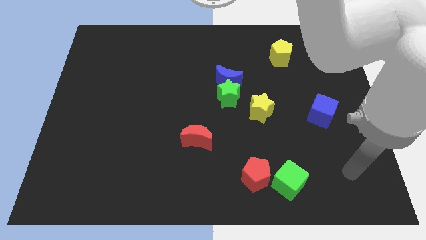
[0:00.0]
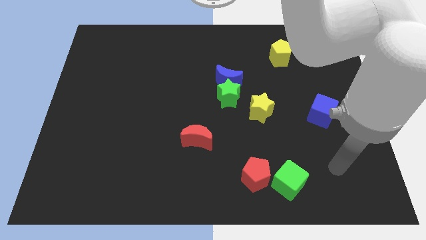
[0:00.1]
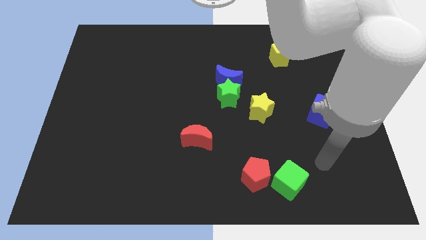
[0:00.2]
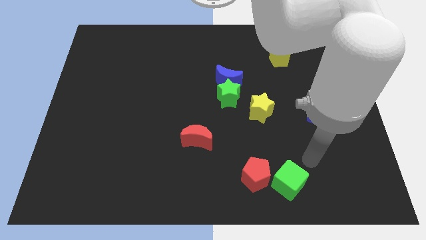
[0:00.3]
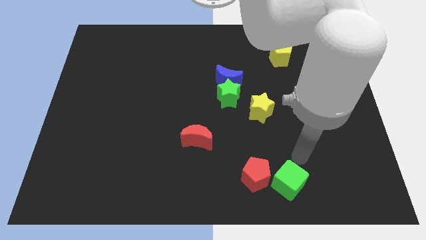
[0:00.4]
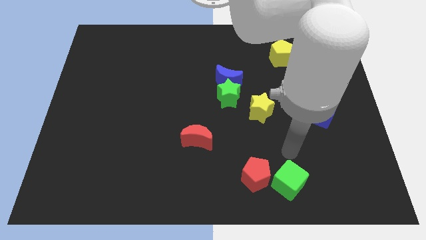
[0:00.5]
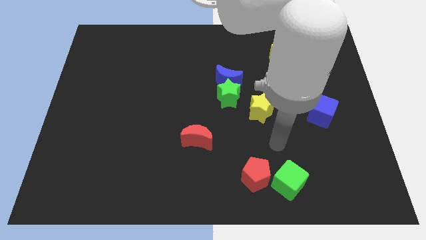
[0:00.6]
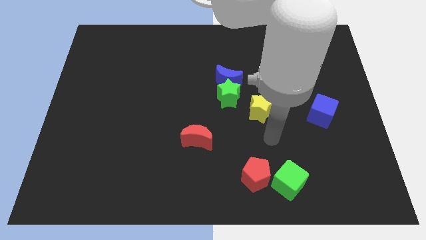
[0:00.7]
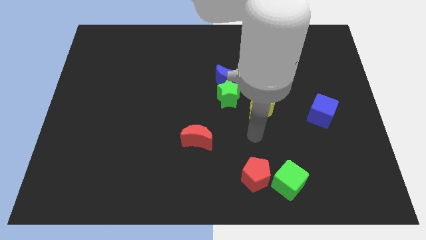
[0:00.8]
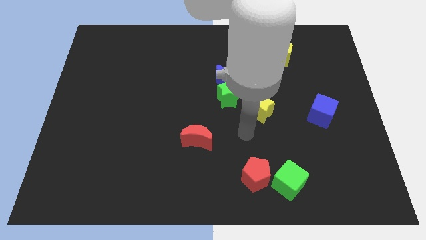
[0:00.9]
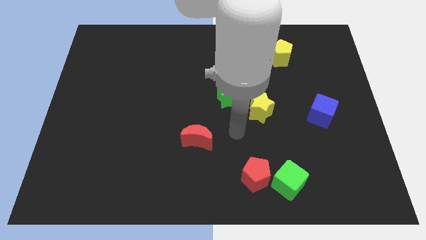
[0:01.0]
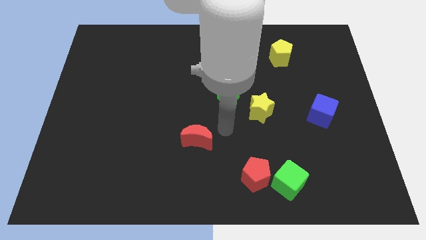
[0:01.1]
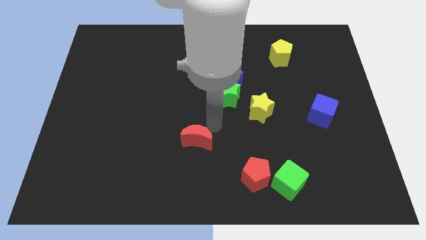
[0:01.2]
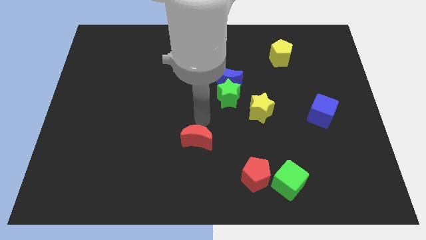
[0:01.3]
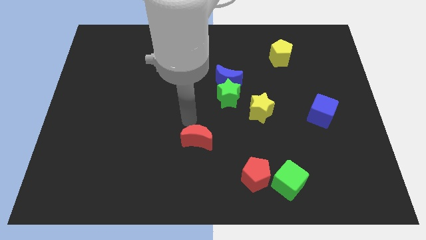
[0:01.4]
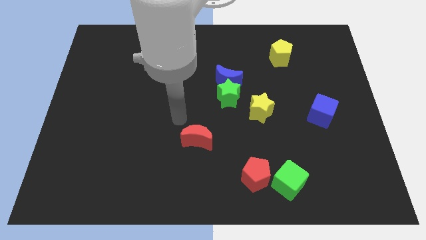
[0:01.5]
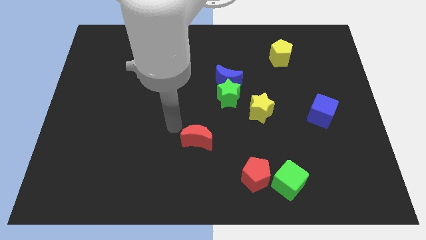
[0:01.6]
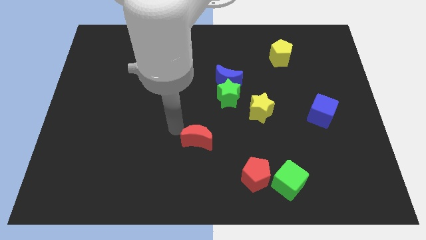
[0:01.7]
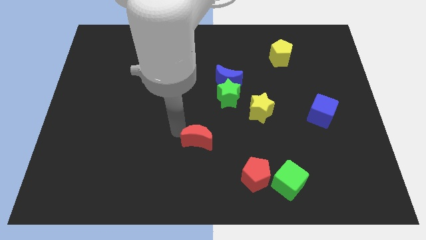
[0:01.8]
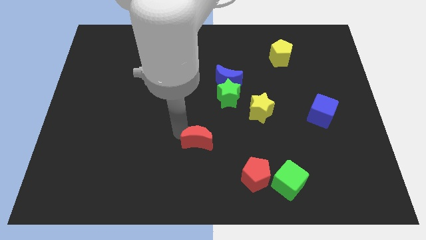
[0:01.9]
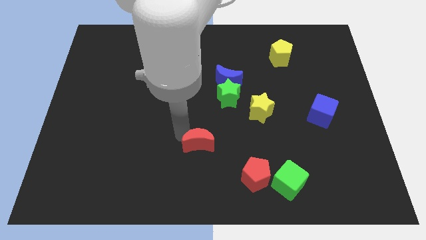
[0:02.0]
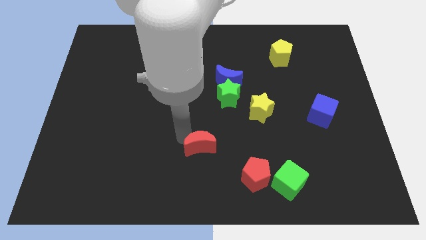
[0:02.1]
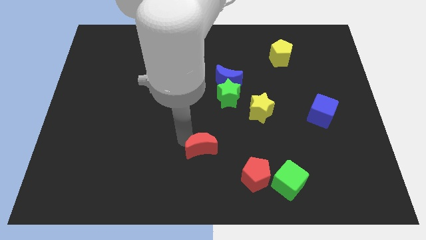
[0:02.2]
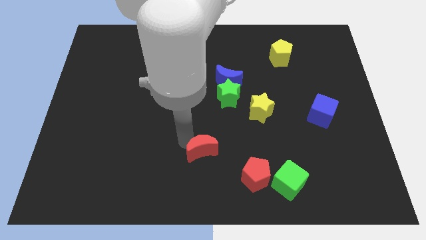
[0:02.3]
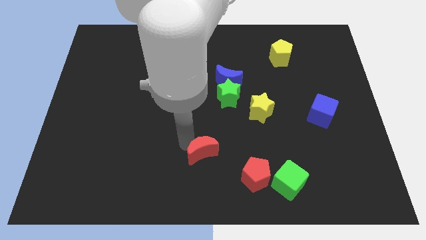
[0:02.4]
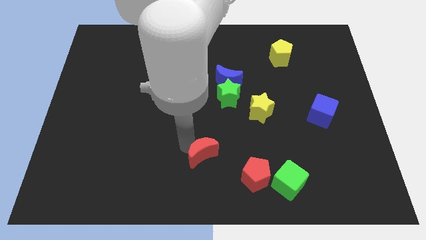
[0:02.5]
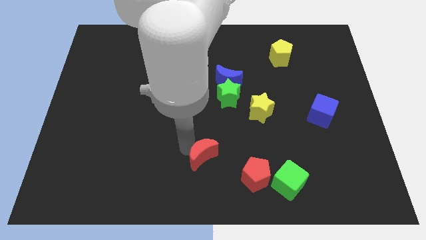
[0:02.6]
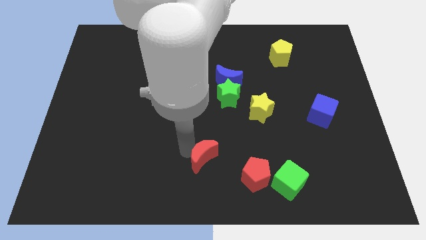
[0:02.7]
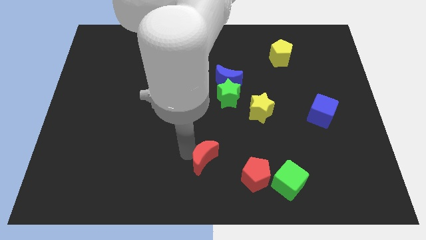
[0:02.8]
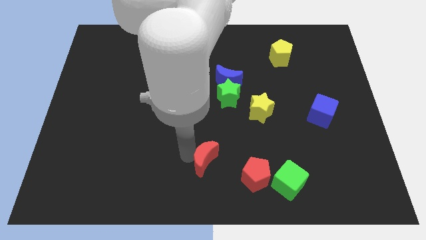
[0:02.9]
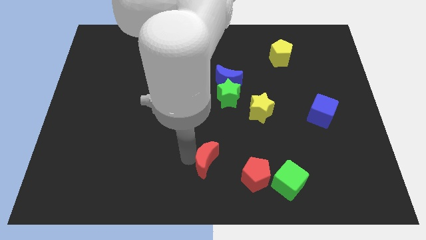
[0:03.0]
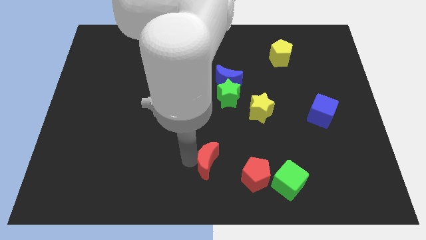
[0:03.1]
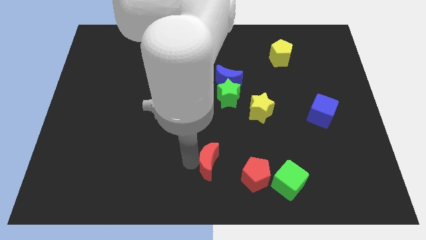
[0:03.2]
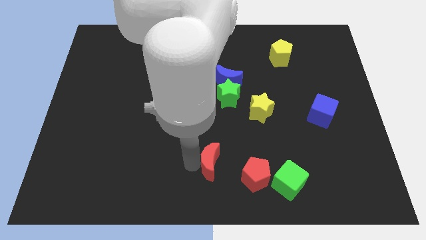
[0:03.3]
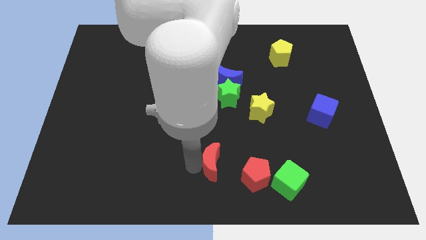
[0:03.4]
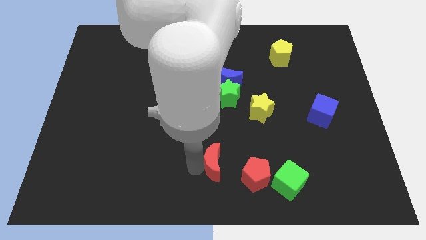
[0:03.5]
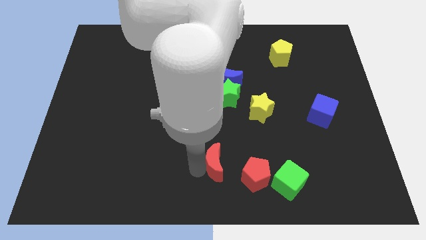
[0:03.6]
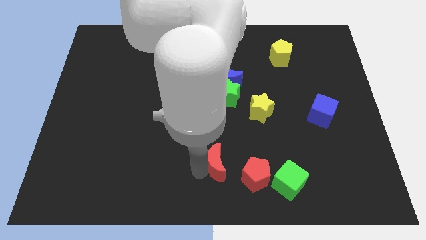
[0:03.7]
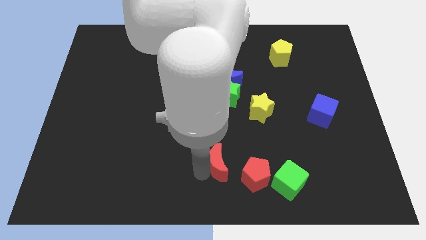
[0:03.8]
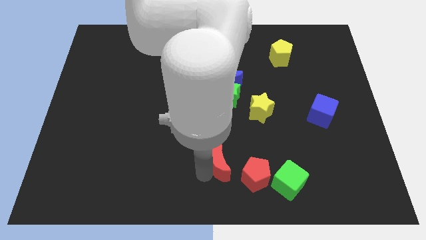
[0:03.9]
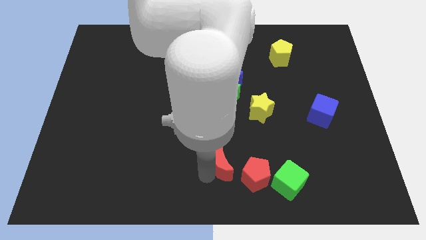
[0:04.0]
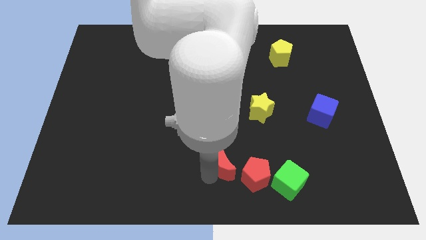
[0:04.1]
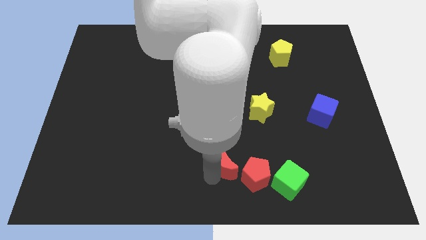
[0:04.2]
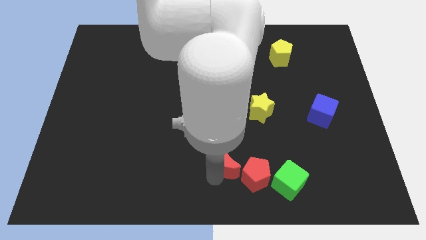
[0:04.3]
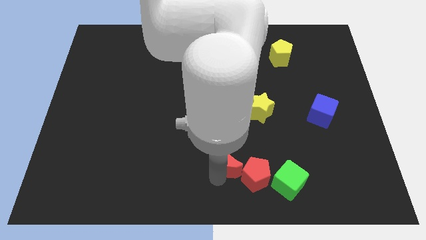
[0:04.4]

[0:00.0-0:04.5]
push the red moon next to the red pentagon

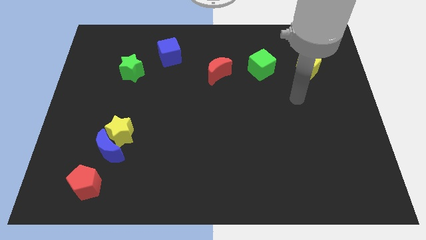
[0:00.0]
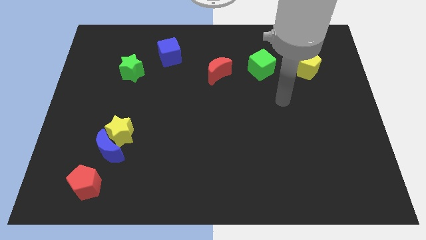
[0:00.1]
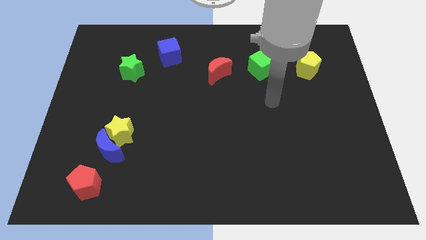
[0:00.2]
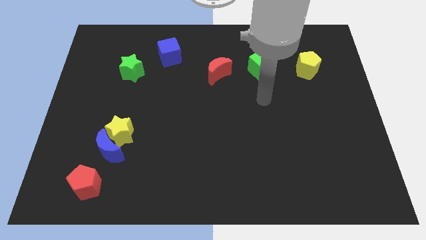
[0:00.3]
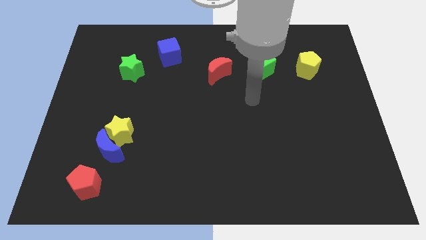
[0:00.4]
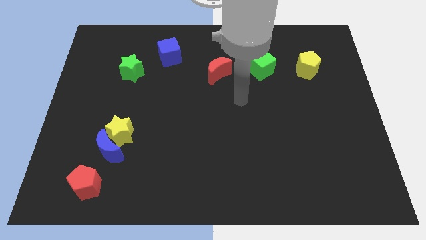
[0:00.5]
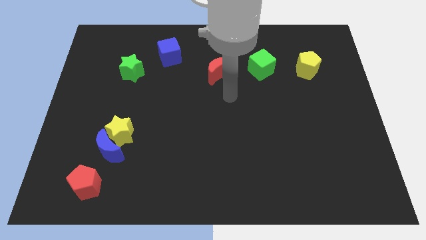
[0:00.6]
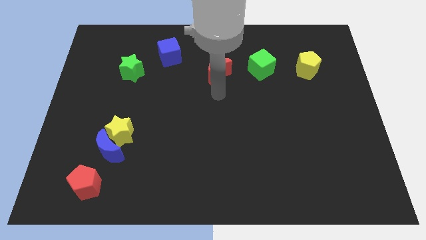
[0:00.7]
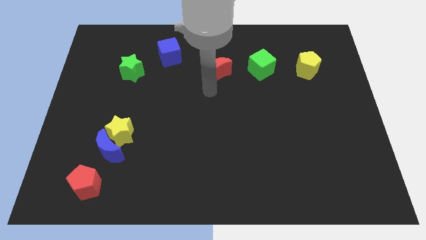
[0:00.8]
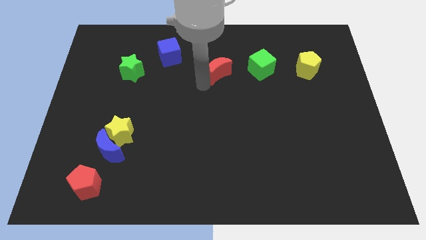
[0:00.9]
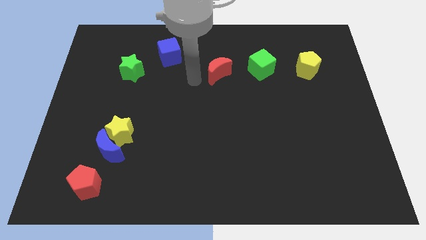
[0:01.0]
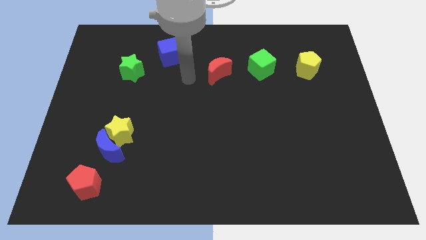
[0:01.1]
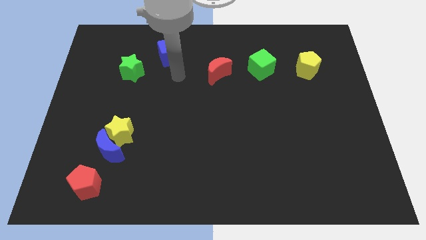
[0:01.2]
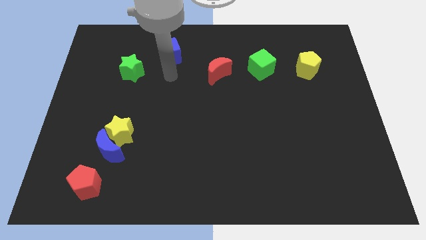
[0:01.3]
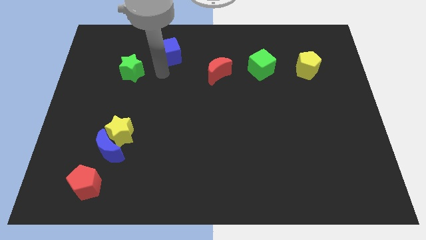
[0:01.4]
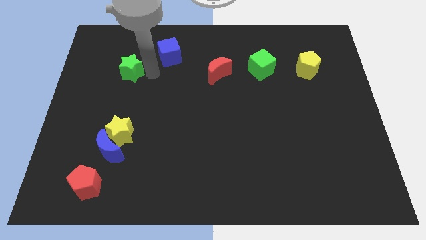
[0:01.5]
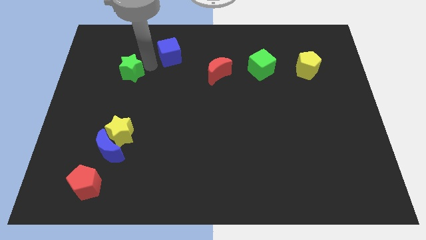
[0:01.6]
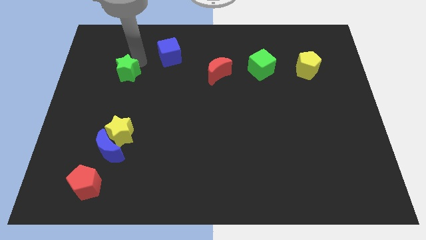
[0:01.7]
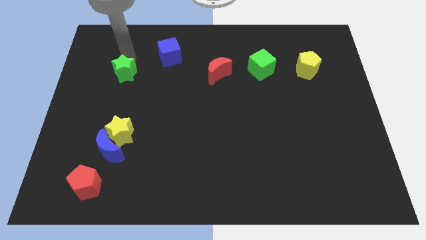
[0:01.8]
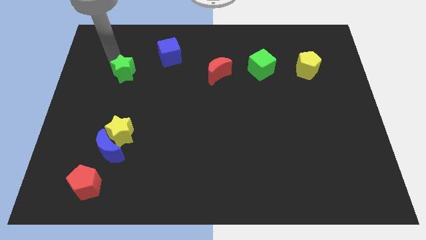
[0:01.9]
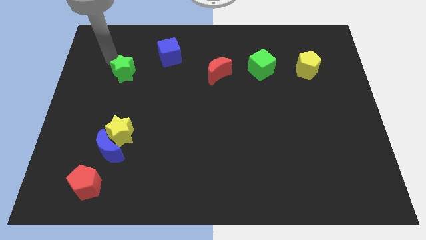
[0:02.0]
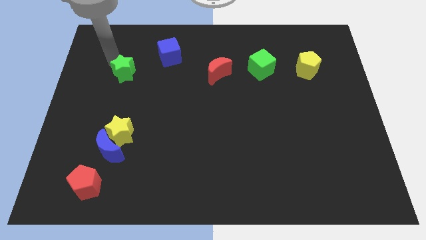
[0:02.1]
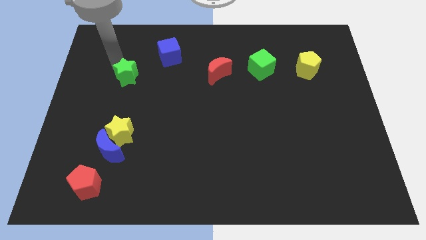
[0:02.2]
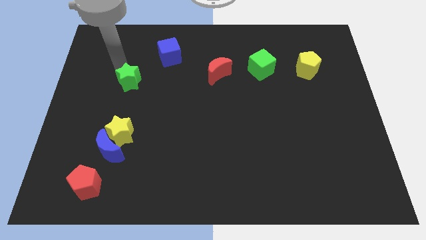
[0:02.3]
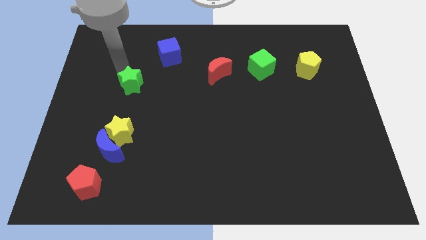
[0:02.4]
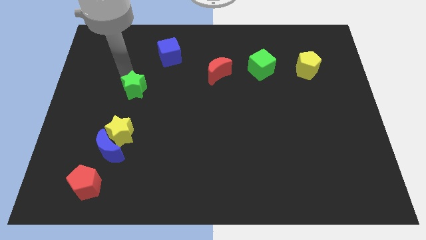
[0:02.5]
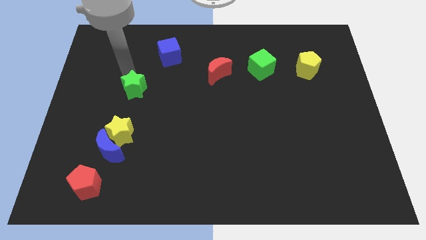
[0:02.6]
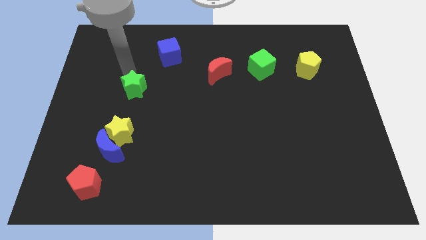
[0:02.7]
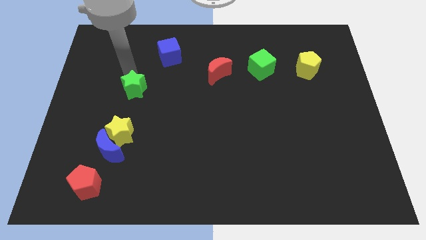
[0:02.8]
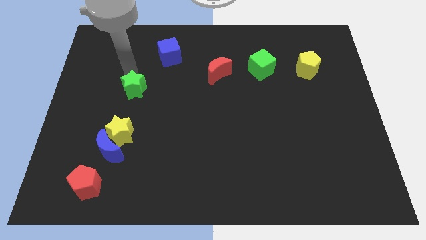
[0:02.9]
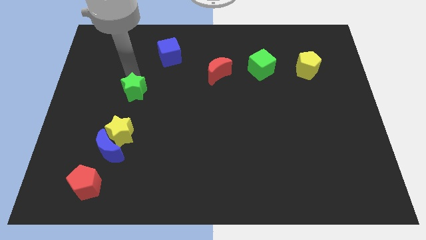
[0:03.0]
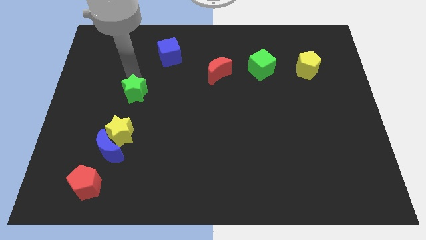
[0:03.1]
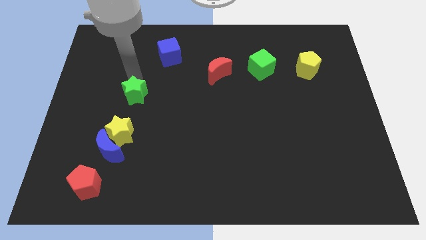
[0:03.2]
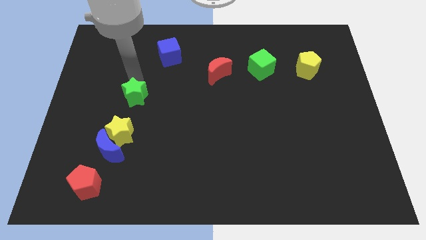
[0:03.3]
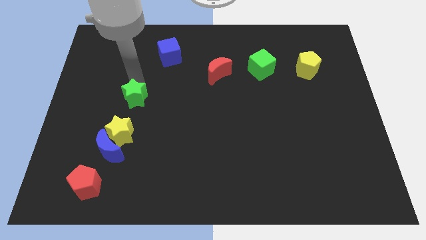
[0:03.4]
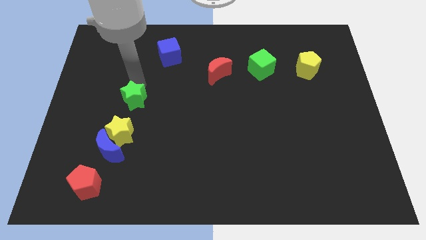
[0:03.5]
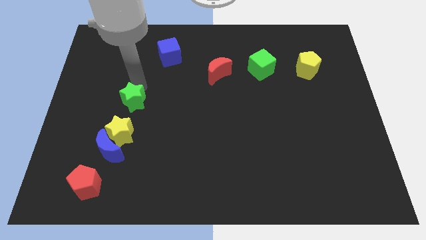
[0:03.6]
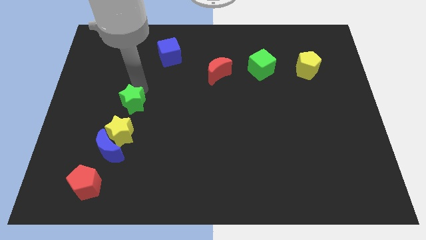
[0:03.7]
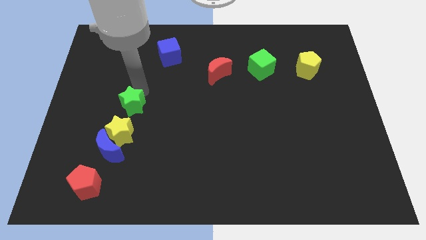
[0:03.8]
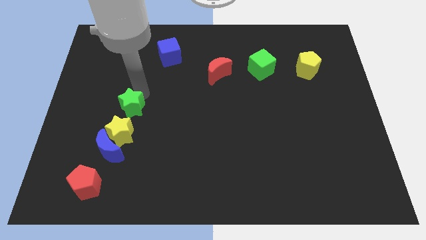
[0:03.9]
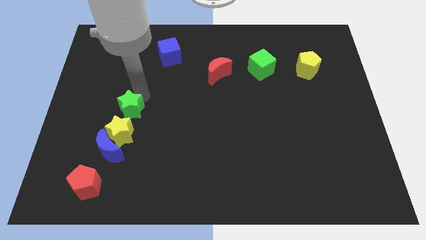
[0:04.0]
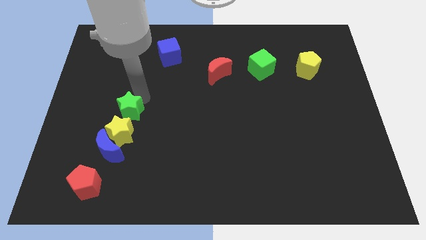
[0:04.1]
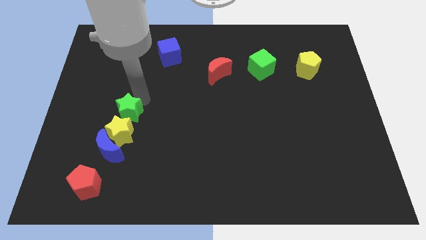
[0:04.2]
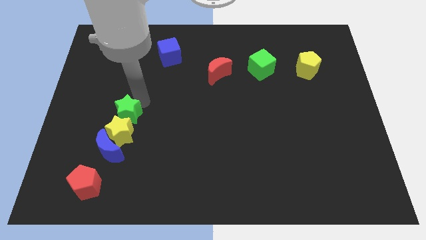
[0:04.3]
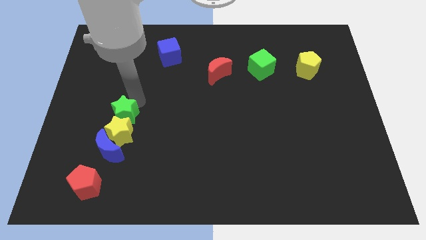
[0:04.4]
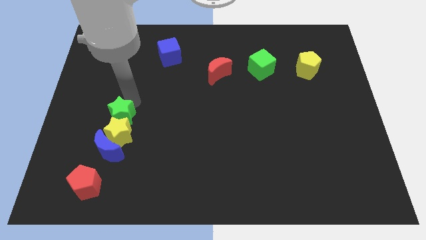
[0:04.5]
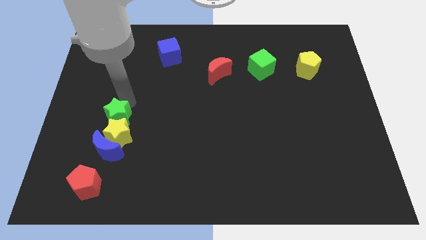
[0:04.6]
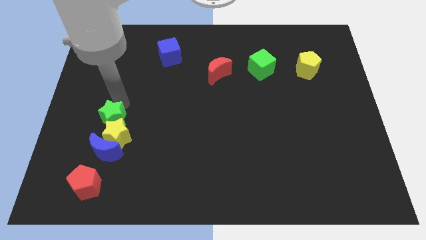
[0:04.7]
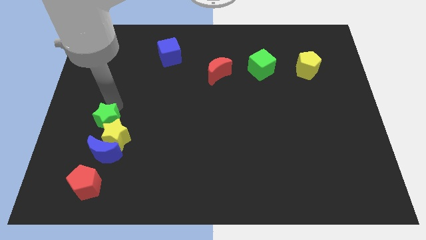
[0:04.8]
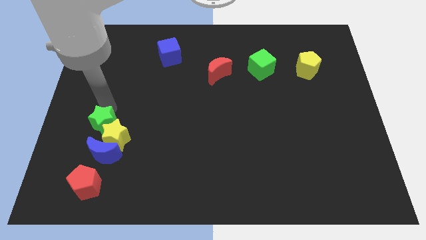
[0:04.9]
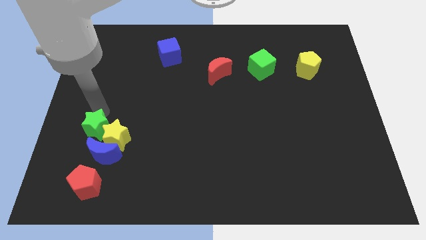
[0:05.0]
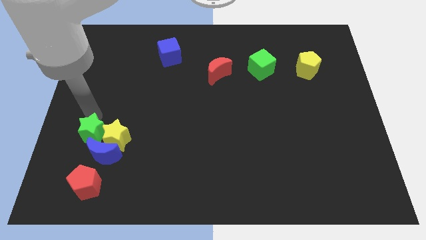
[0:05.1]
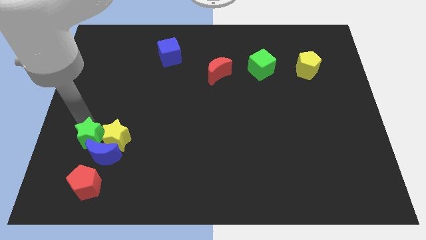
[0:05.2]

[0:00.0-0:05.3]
move the green star to the blue moon
